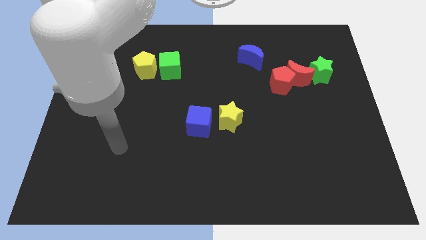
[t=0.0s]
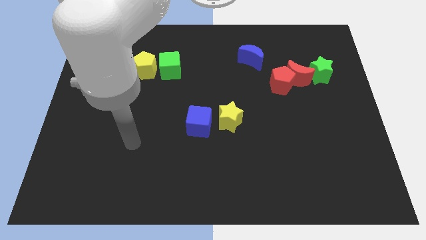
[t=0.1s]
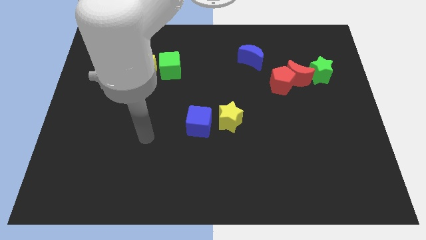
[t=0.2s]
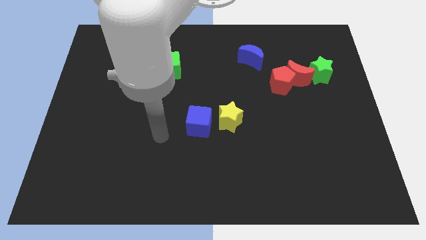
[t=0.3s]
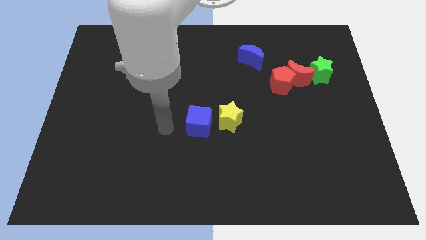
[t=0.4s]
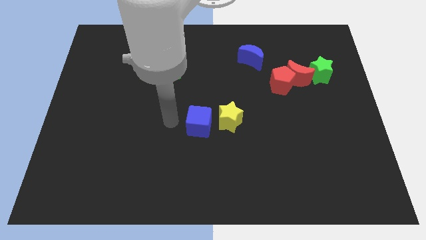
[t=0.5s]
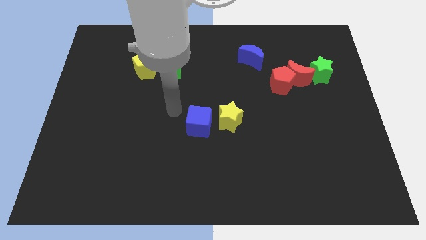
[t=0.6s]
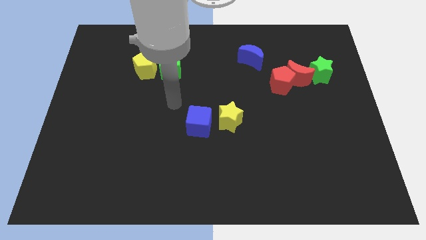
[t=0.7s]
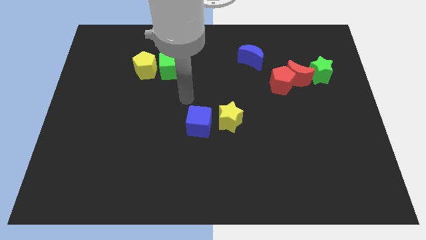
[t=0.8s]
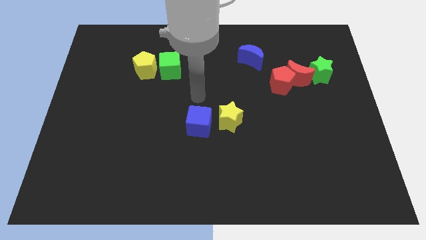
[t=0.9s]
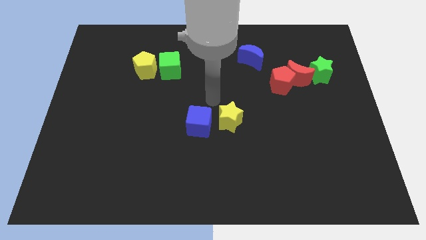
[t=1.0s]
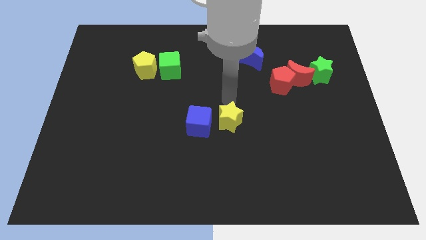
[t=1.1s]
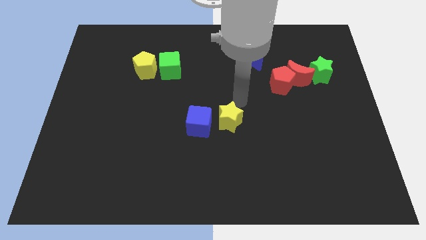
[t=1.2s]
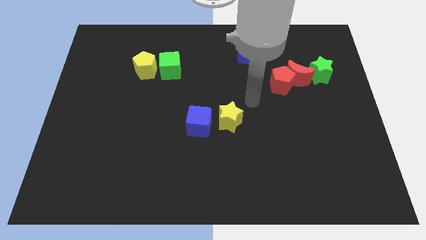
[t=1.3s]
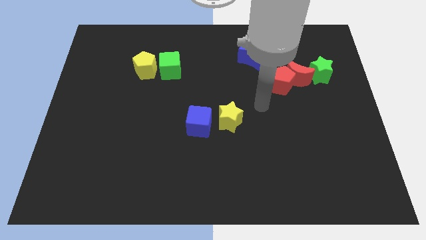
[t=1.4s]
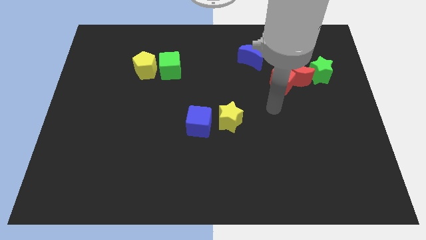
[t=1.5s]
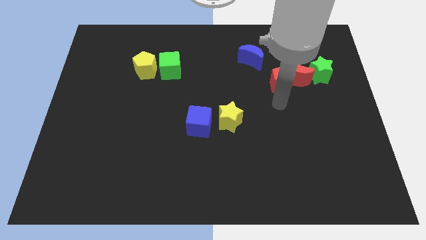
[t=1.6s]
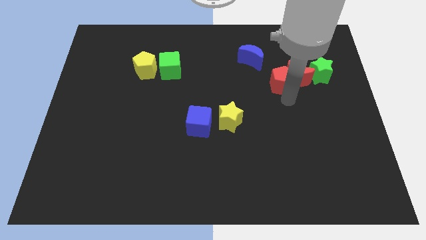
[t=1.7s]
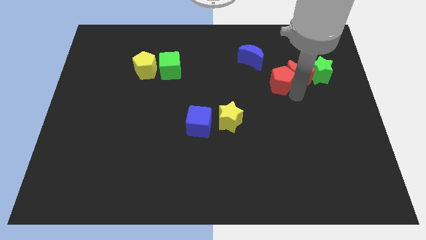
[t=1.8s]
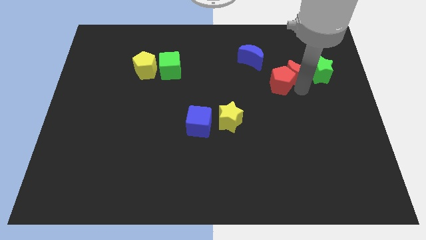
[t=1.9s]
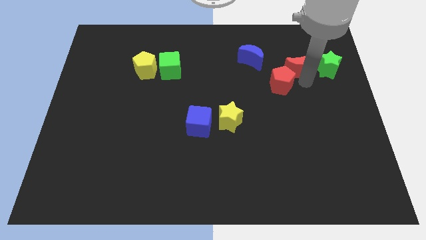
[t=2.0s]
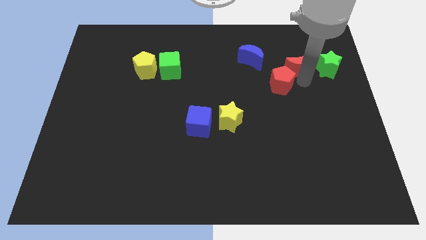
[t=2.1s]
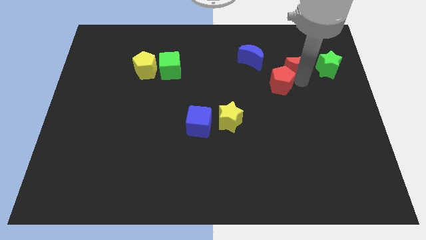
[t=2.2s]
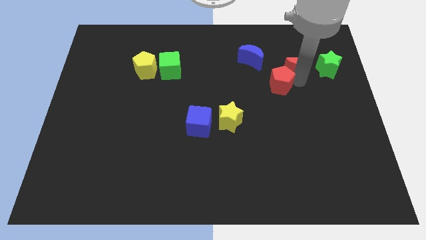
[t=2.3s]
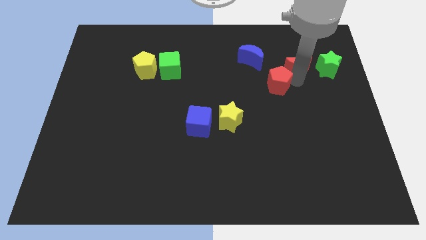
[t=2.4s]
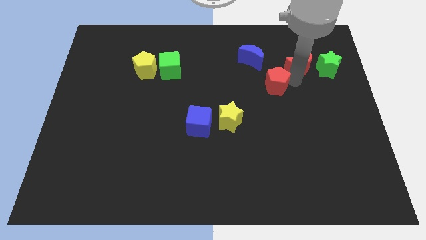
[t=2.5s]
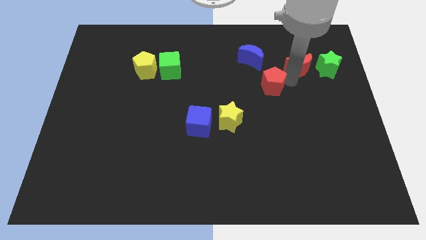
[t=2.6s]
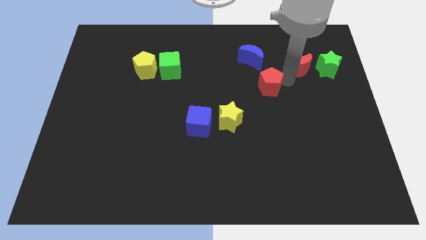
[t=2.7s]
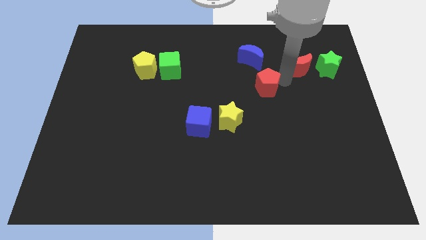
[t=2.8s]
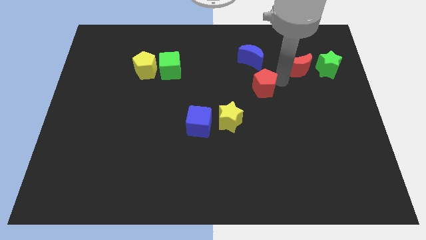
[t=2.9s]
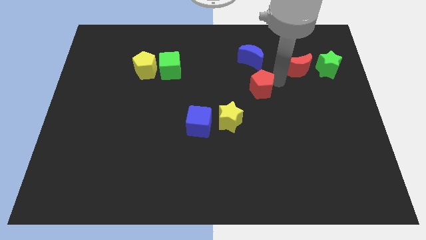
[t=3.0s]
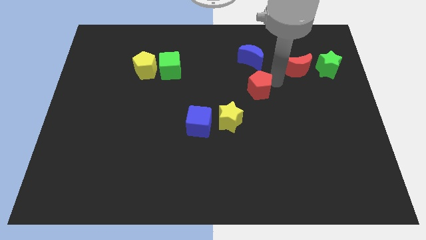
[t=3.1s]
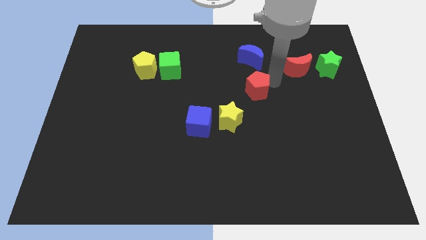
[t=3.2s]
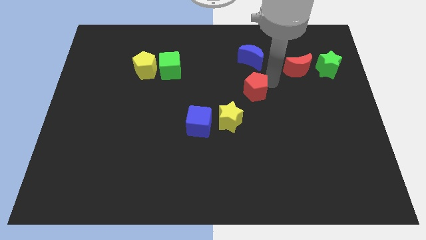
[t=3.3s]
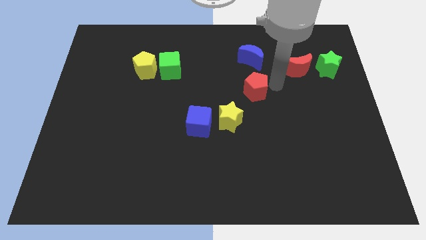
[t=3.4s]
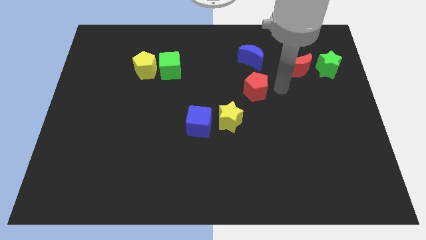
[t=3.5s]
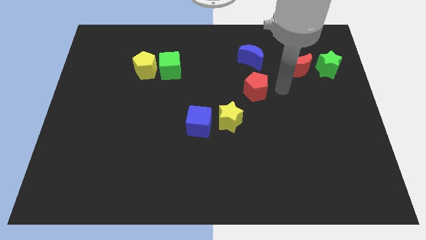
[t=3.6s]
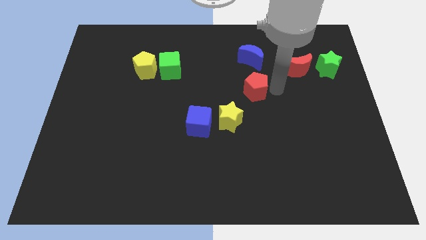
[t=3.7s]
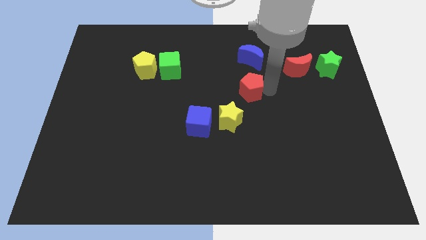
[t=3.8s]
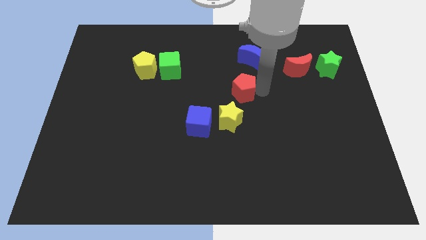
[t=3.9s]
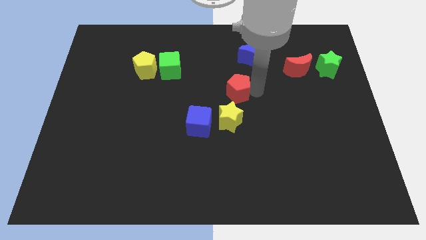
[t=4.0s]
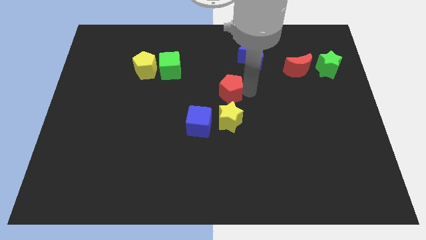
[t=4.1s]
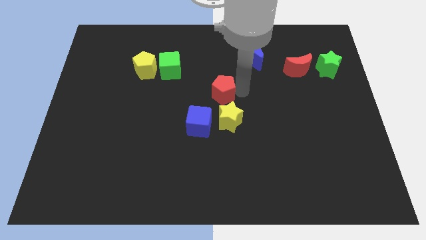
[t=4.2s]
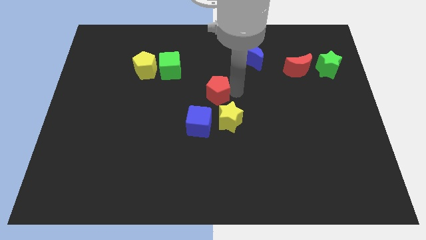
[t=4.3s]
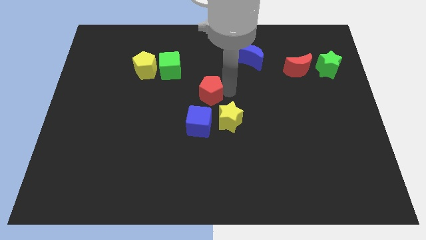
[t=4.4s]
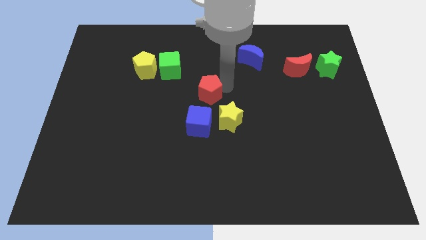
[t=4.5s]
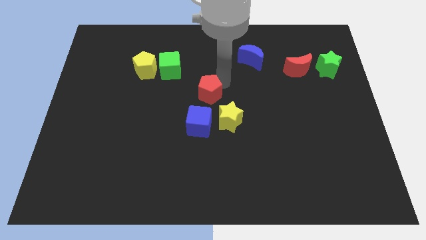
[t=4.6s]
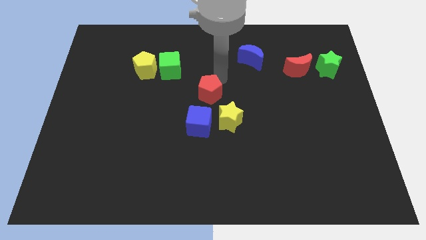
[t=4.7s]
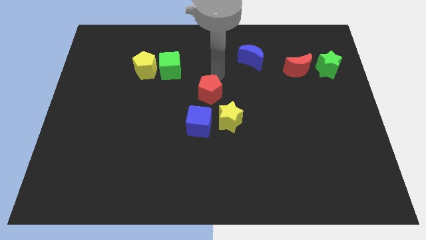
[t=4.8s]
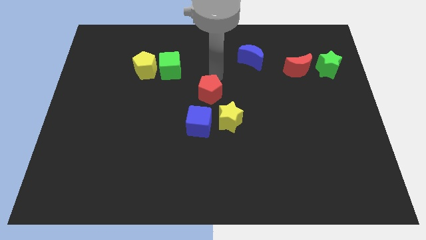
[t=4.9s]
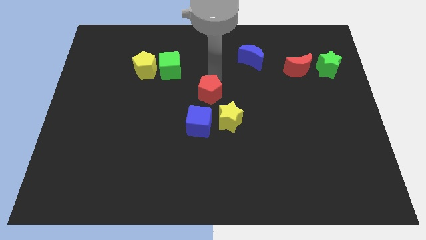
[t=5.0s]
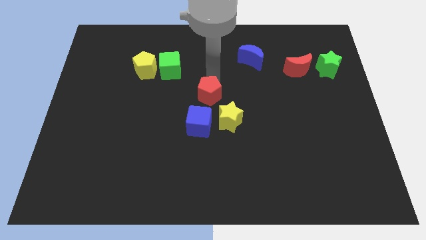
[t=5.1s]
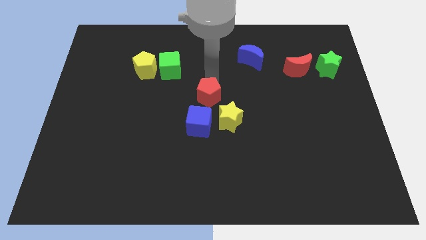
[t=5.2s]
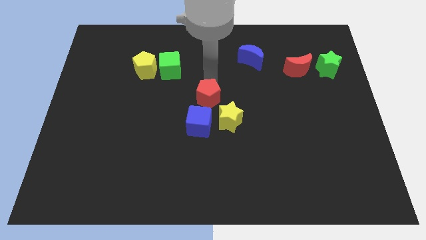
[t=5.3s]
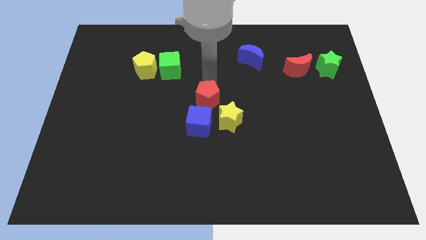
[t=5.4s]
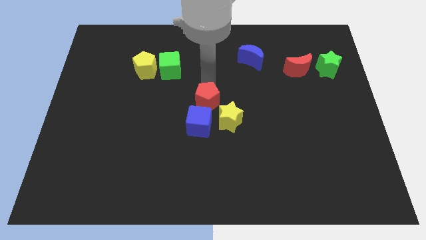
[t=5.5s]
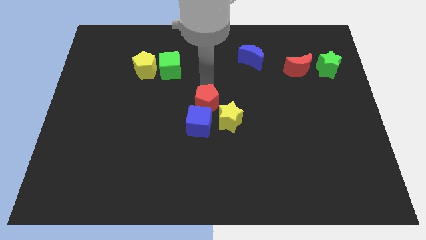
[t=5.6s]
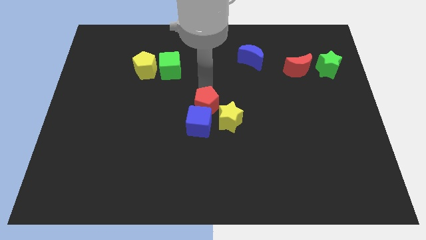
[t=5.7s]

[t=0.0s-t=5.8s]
slide the red pentagon towards the blue cube

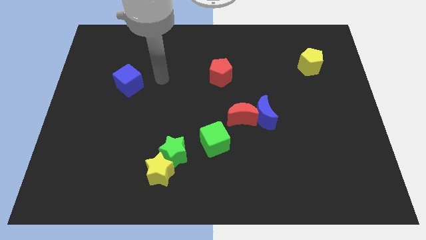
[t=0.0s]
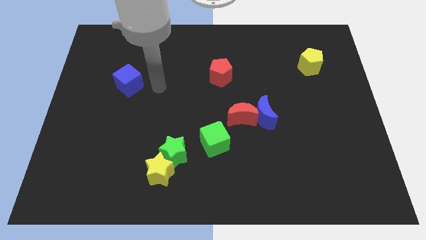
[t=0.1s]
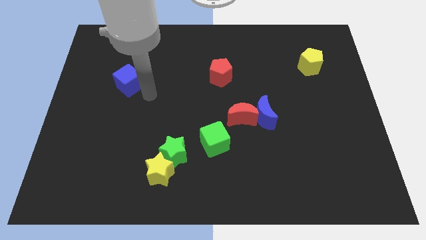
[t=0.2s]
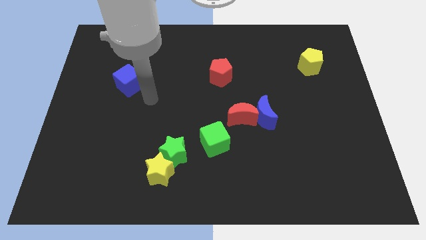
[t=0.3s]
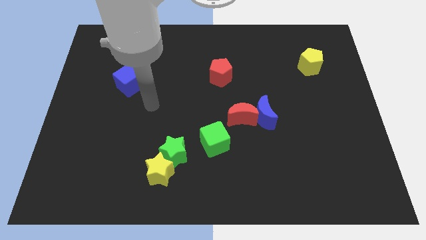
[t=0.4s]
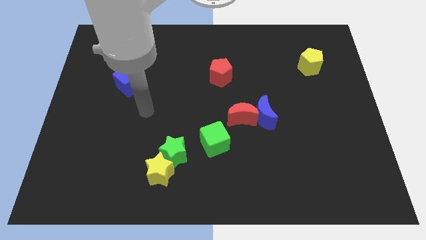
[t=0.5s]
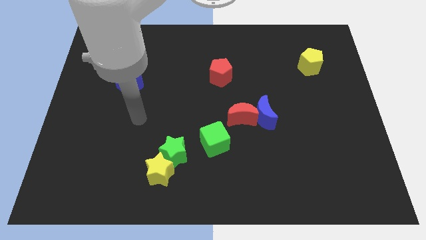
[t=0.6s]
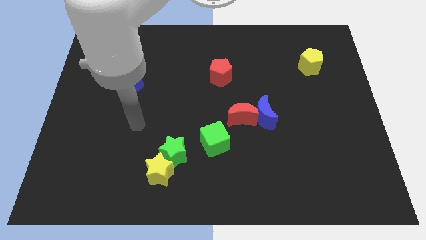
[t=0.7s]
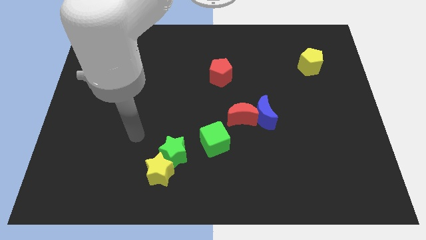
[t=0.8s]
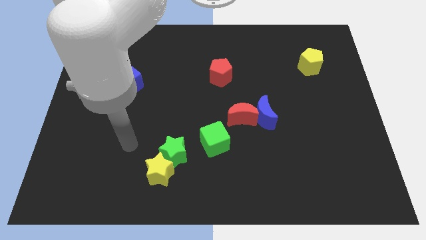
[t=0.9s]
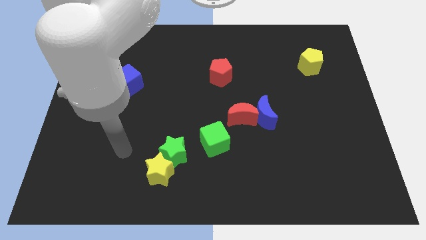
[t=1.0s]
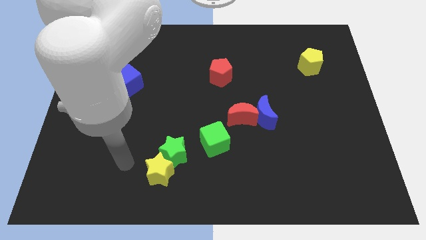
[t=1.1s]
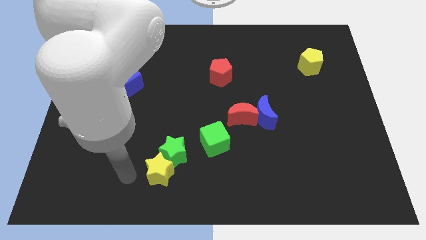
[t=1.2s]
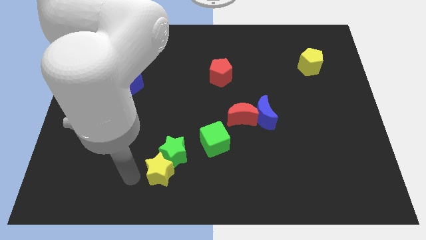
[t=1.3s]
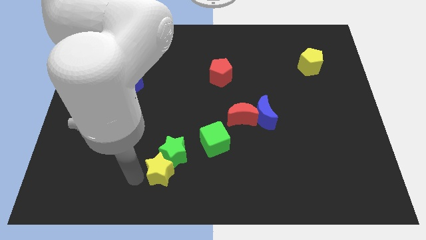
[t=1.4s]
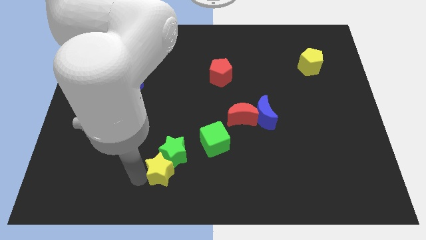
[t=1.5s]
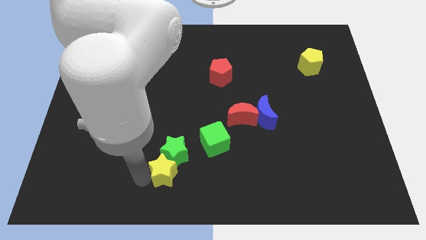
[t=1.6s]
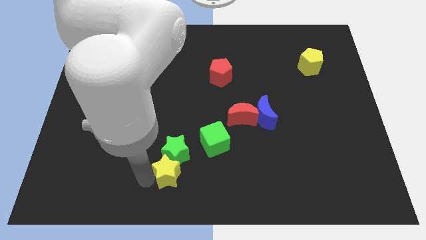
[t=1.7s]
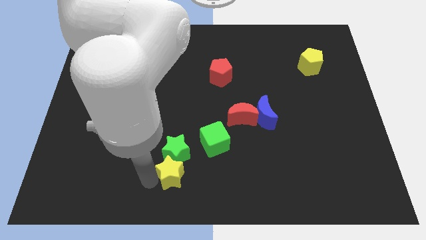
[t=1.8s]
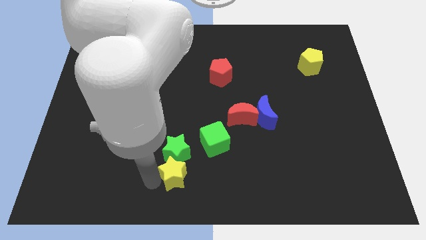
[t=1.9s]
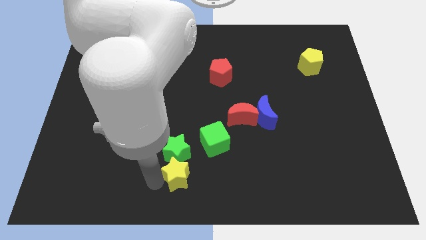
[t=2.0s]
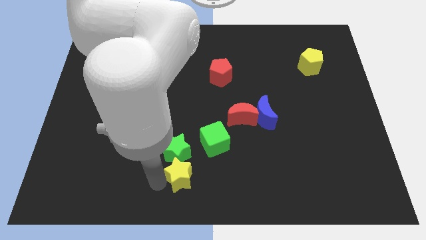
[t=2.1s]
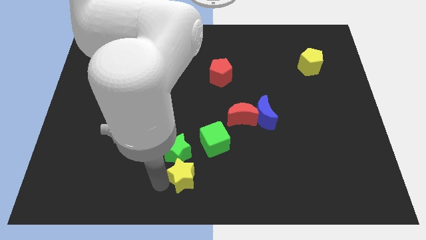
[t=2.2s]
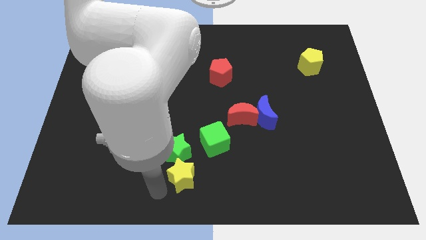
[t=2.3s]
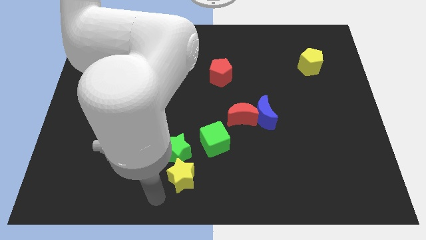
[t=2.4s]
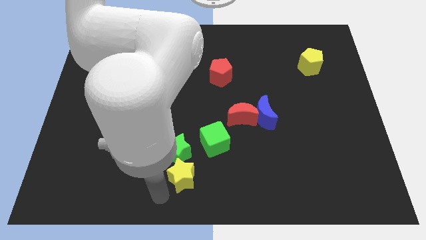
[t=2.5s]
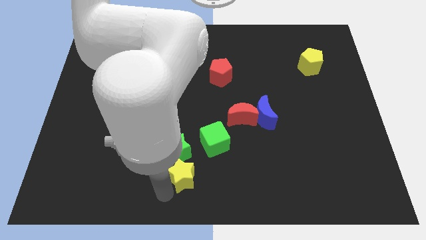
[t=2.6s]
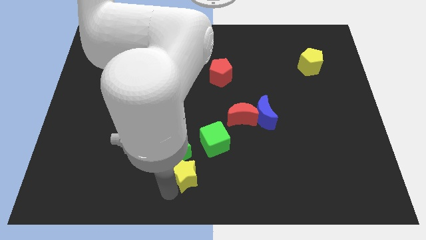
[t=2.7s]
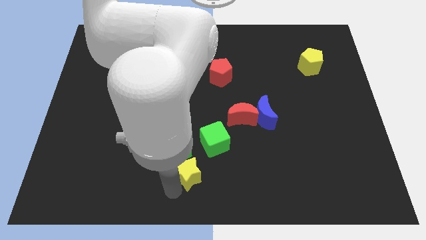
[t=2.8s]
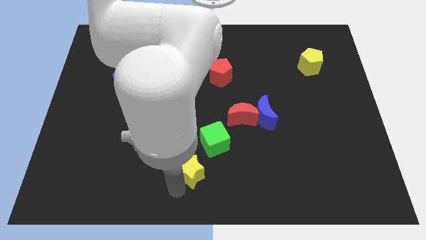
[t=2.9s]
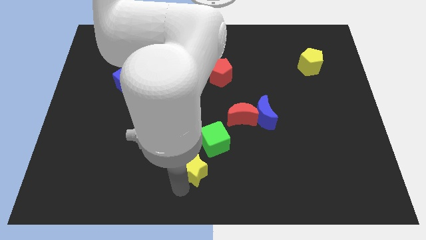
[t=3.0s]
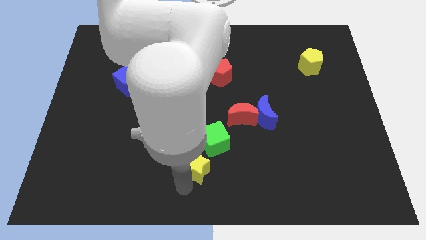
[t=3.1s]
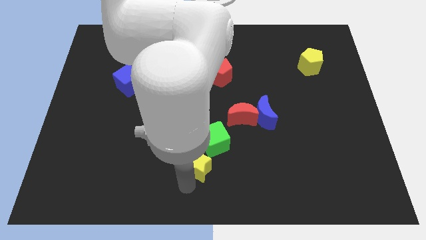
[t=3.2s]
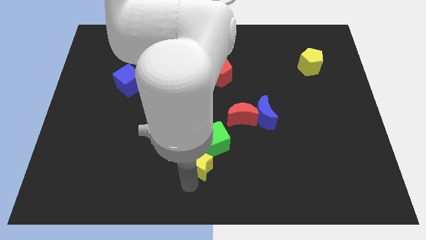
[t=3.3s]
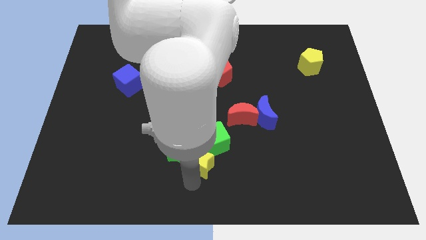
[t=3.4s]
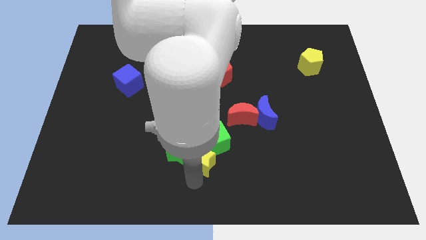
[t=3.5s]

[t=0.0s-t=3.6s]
move the yellow star towards the green cube
